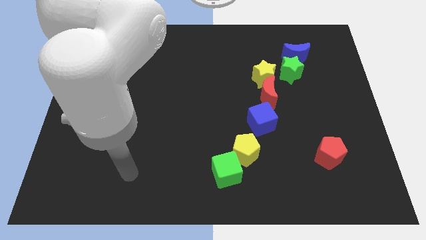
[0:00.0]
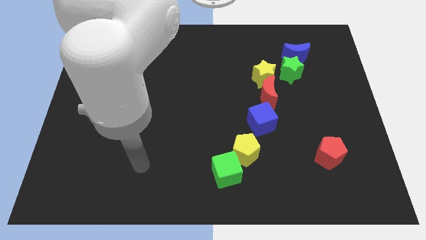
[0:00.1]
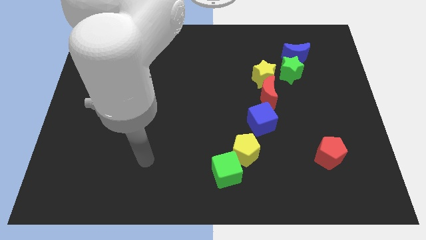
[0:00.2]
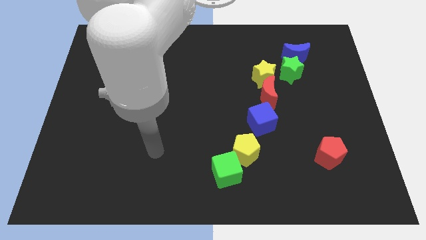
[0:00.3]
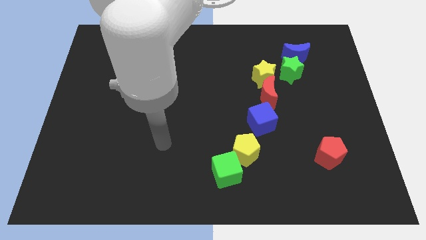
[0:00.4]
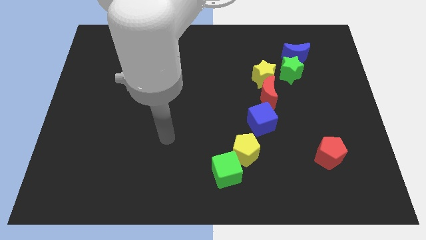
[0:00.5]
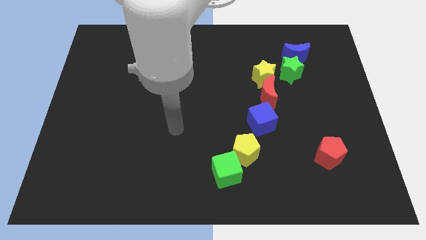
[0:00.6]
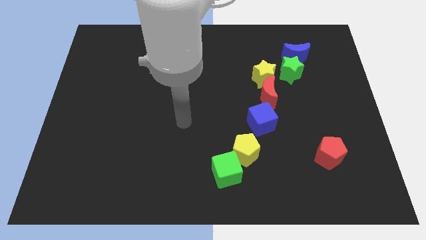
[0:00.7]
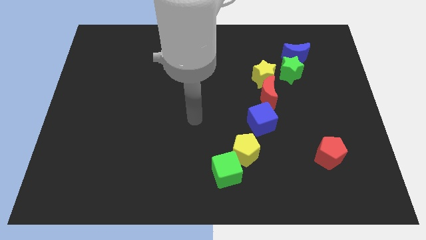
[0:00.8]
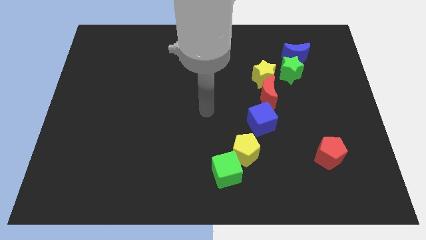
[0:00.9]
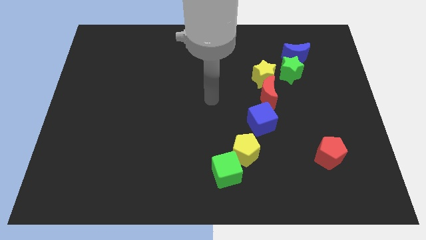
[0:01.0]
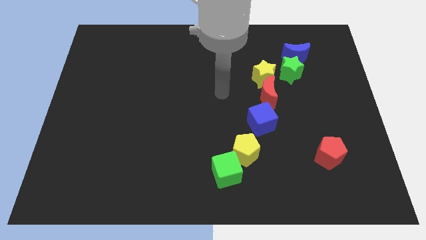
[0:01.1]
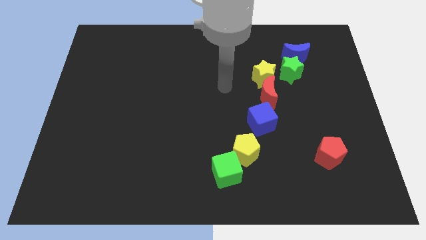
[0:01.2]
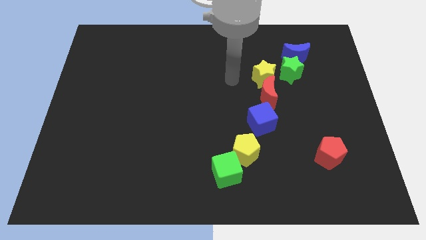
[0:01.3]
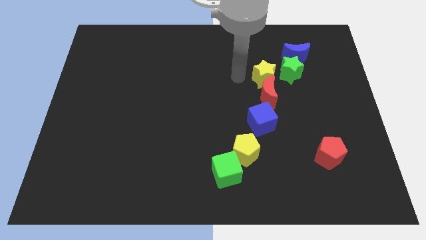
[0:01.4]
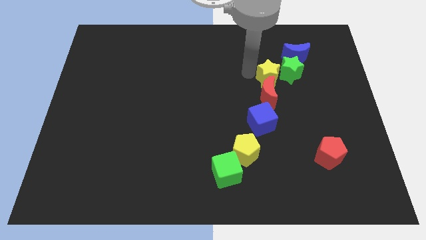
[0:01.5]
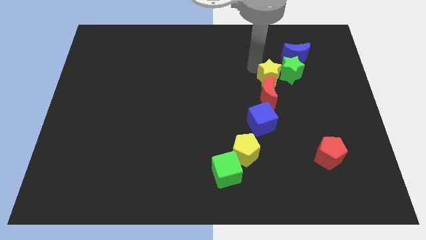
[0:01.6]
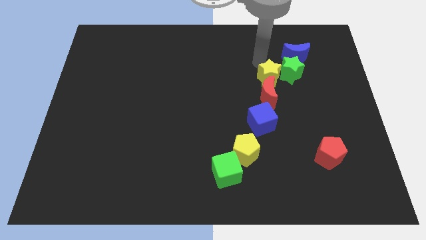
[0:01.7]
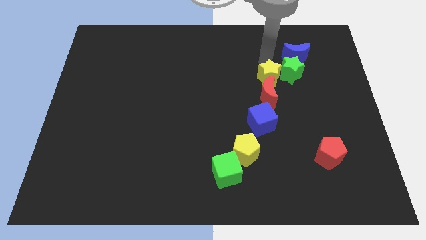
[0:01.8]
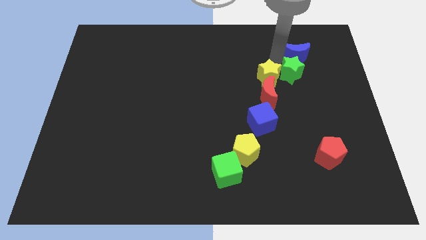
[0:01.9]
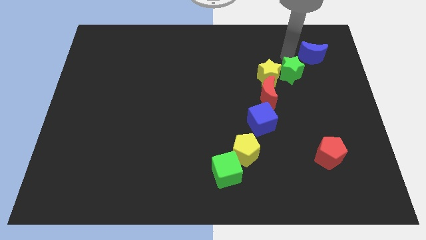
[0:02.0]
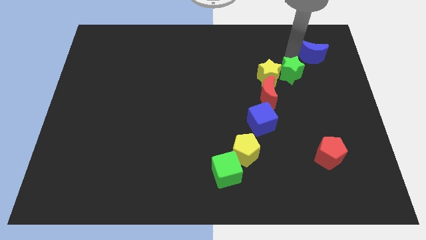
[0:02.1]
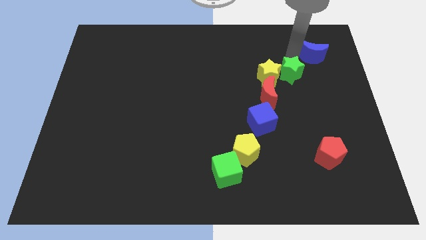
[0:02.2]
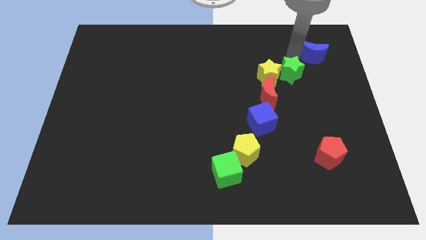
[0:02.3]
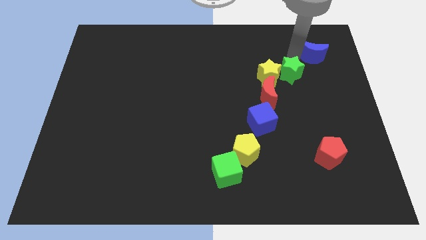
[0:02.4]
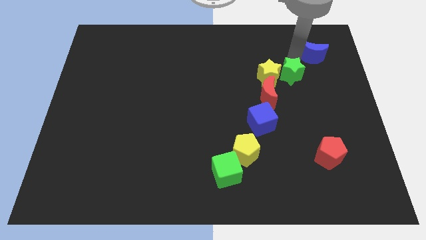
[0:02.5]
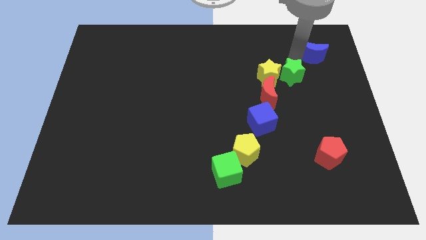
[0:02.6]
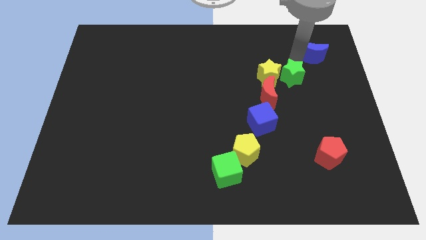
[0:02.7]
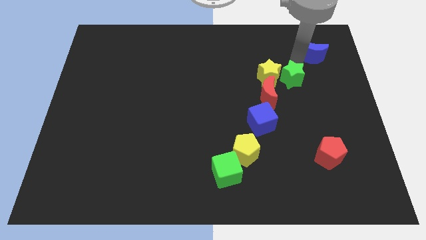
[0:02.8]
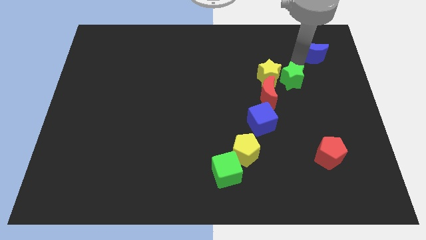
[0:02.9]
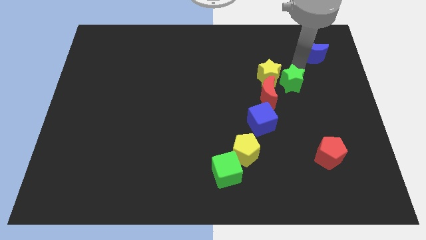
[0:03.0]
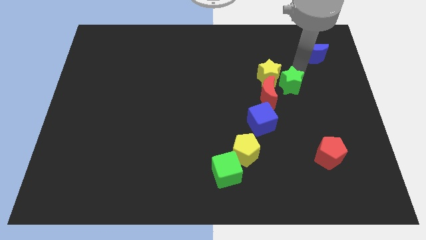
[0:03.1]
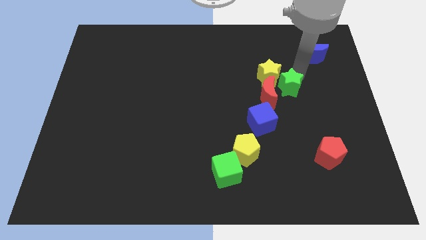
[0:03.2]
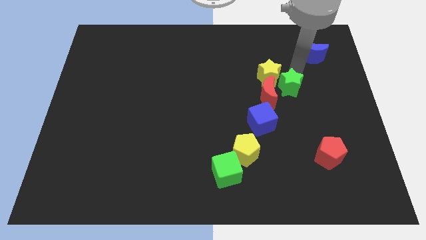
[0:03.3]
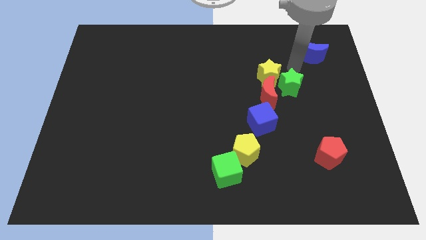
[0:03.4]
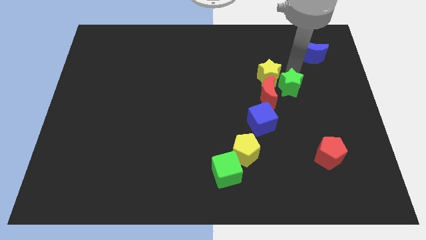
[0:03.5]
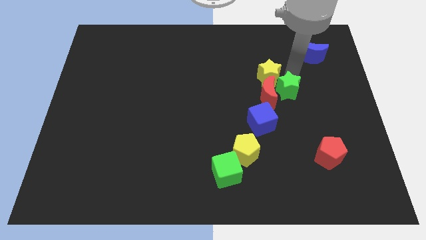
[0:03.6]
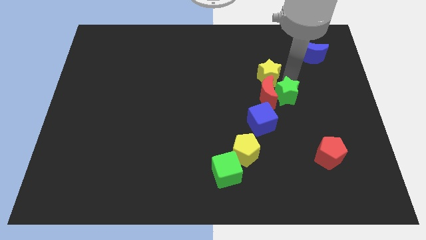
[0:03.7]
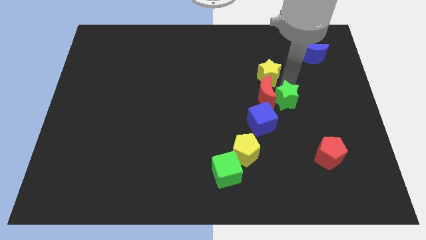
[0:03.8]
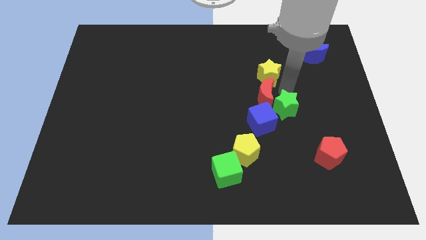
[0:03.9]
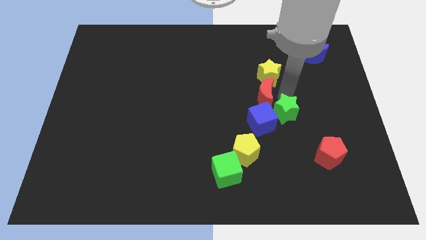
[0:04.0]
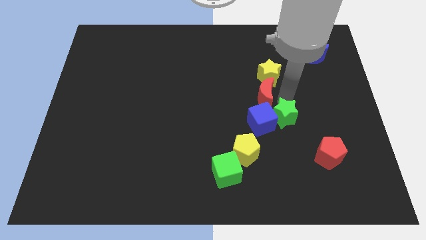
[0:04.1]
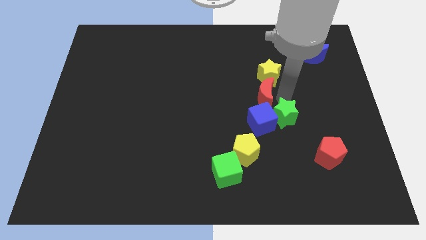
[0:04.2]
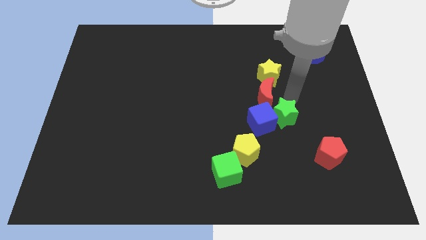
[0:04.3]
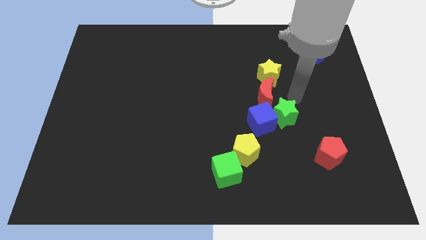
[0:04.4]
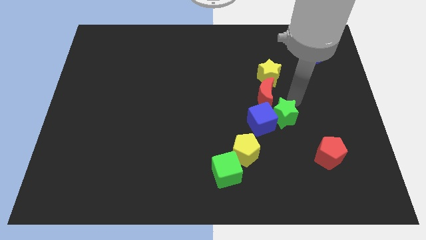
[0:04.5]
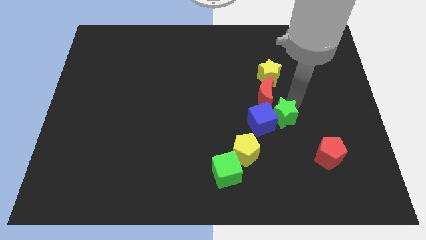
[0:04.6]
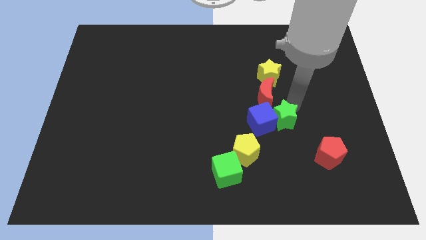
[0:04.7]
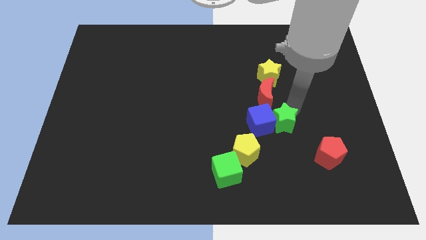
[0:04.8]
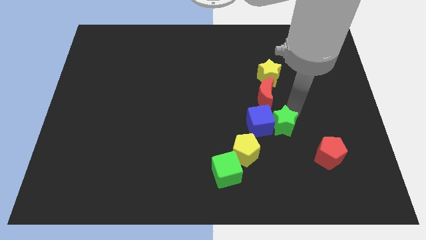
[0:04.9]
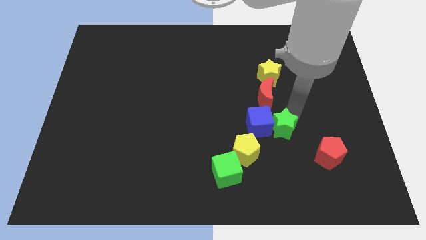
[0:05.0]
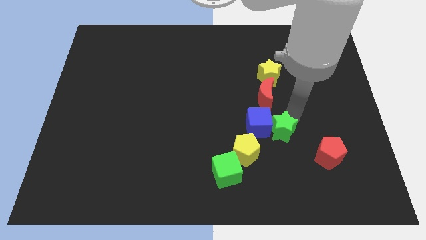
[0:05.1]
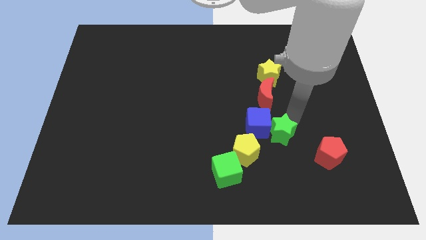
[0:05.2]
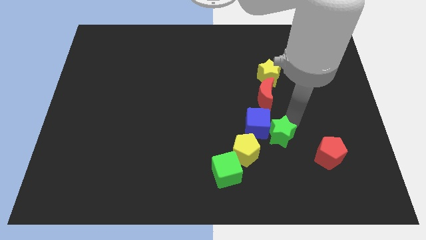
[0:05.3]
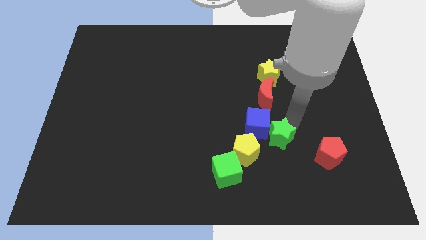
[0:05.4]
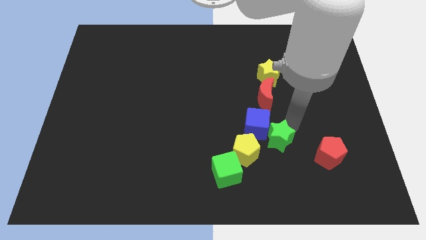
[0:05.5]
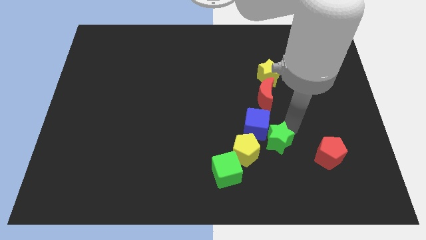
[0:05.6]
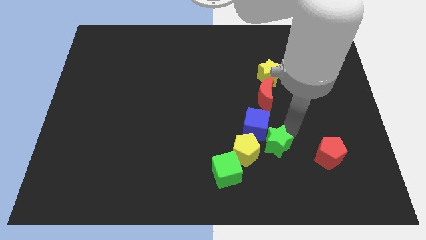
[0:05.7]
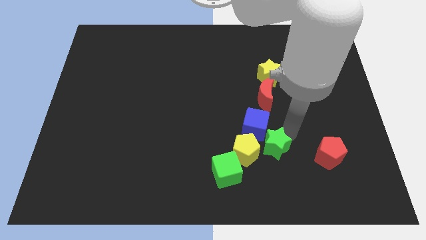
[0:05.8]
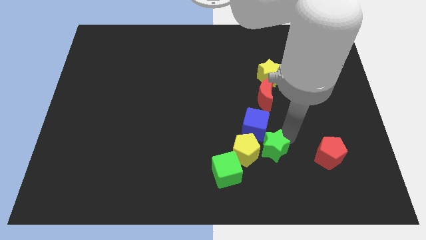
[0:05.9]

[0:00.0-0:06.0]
move the green star close to the yellow pentagon
